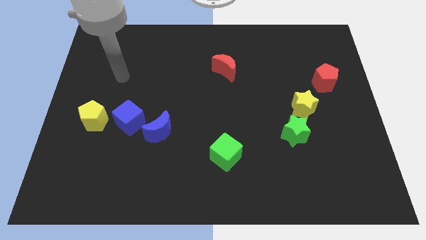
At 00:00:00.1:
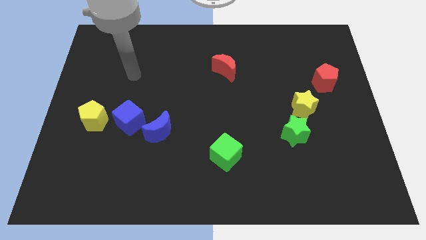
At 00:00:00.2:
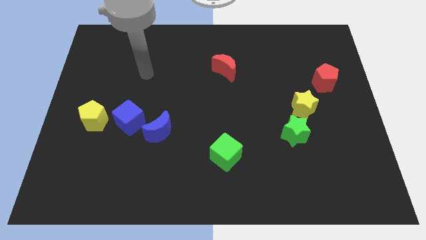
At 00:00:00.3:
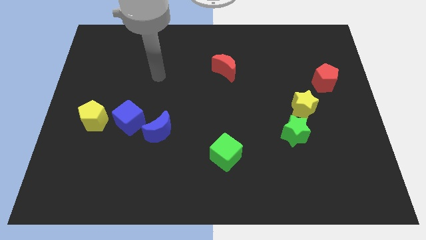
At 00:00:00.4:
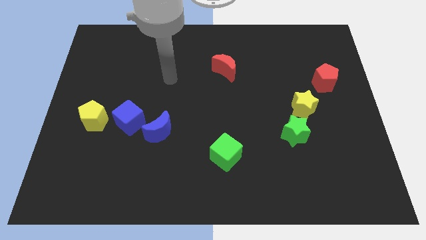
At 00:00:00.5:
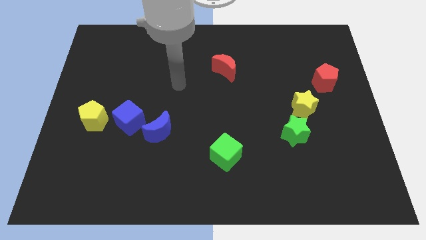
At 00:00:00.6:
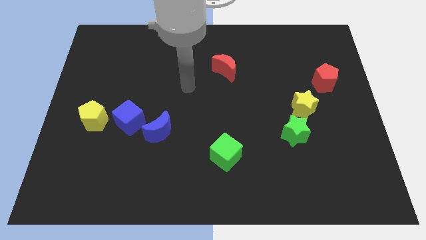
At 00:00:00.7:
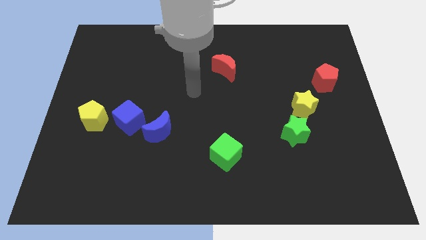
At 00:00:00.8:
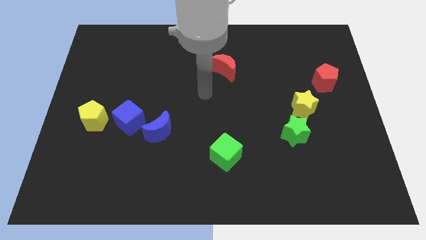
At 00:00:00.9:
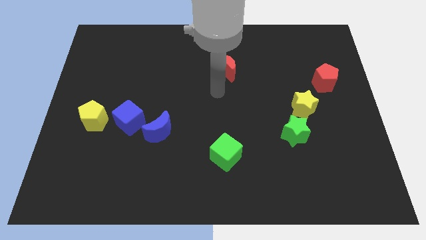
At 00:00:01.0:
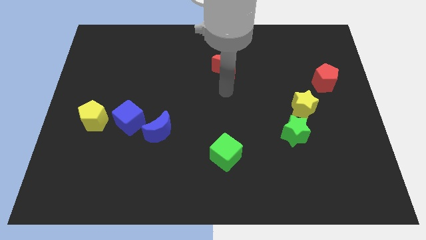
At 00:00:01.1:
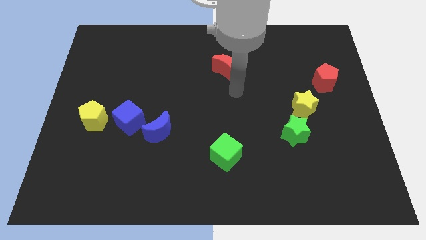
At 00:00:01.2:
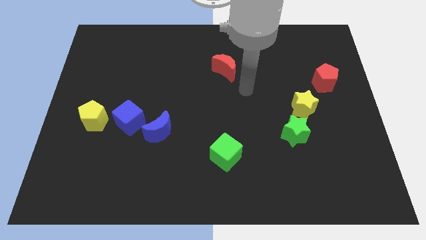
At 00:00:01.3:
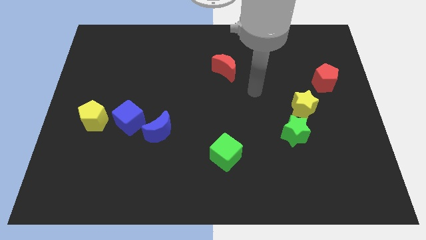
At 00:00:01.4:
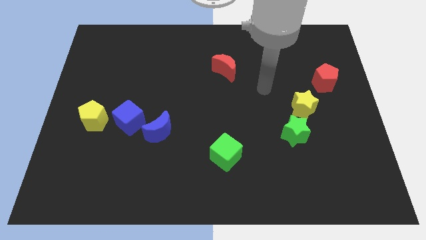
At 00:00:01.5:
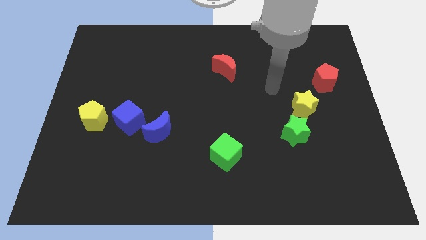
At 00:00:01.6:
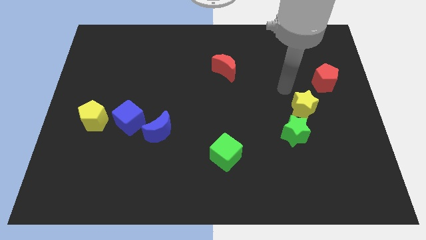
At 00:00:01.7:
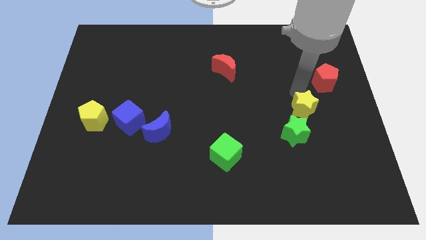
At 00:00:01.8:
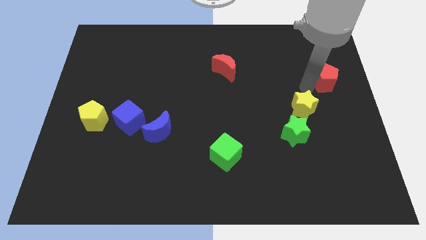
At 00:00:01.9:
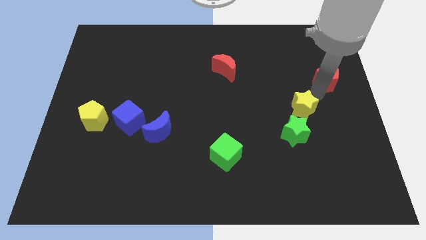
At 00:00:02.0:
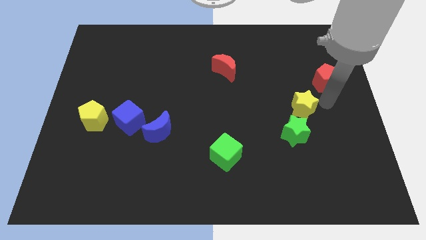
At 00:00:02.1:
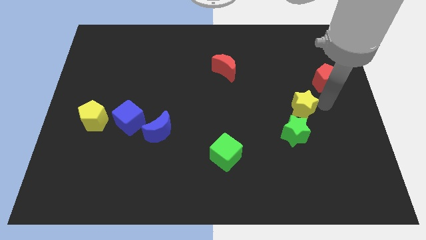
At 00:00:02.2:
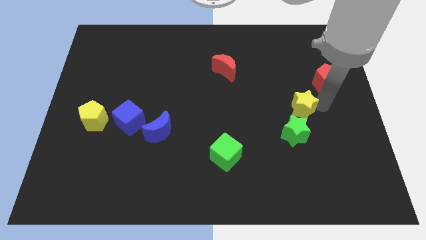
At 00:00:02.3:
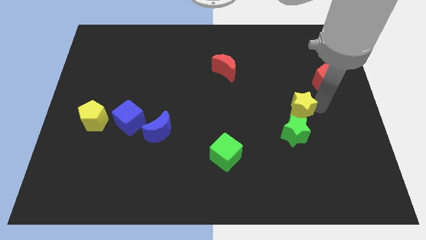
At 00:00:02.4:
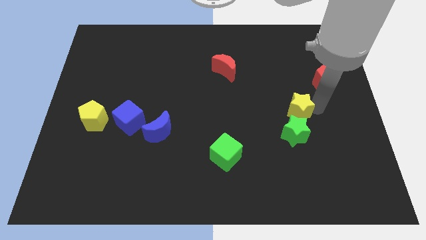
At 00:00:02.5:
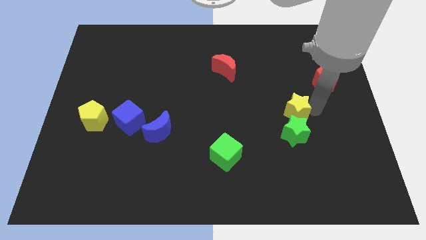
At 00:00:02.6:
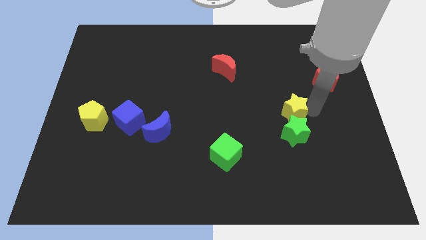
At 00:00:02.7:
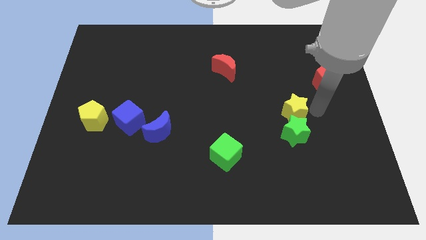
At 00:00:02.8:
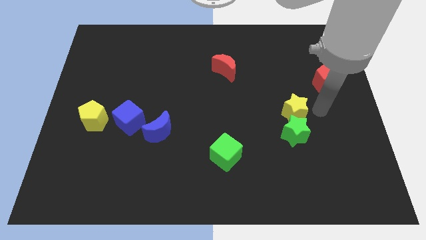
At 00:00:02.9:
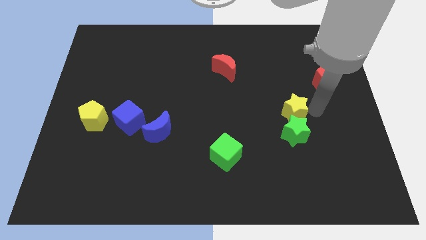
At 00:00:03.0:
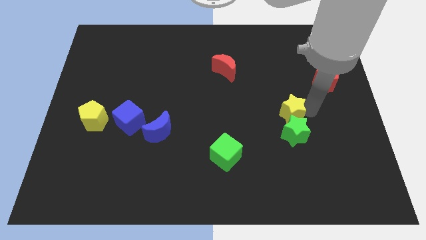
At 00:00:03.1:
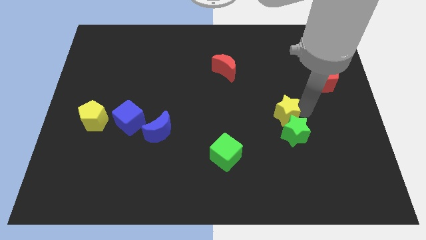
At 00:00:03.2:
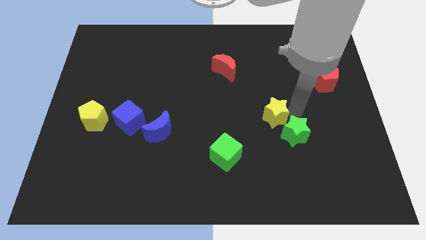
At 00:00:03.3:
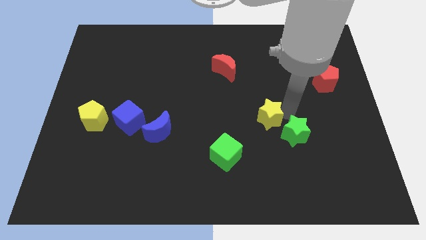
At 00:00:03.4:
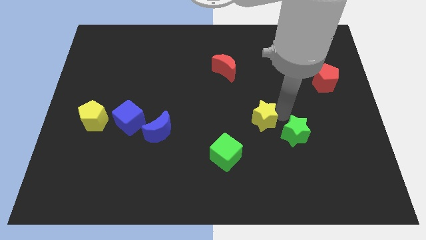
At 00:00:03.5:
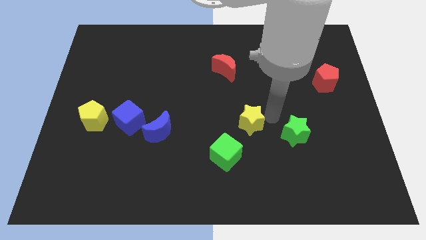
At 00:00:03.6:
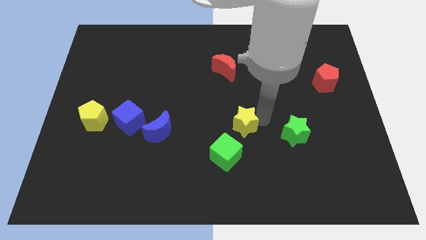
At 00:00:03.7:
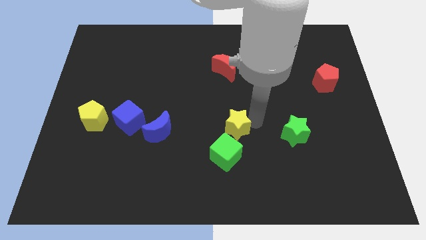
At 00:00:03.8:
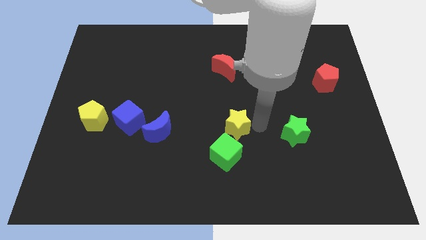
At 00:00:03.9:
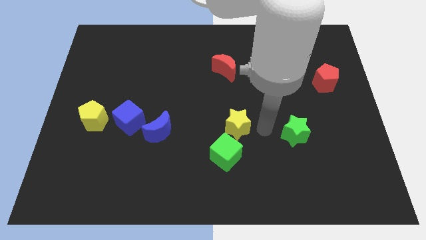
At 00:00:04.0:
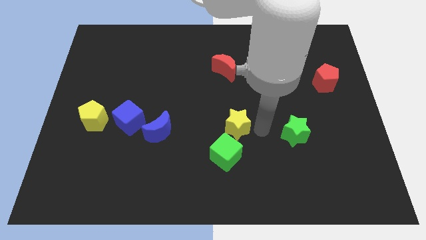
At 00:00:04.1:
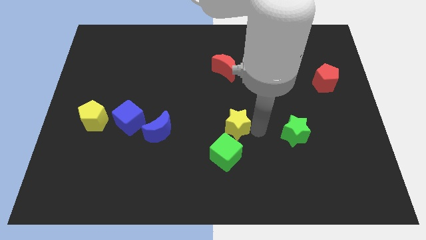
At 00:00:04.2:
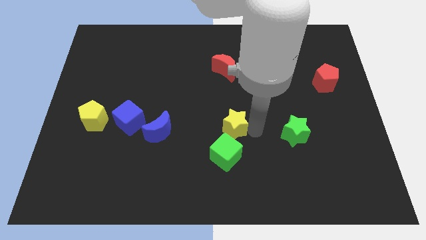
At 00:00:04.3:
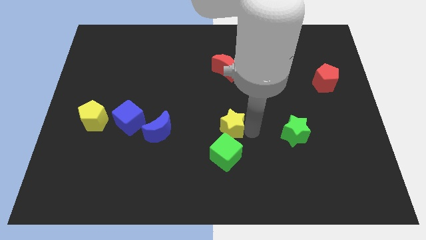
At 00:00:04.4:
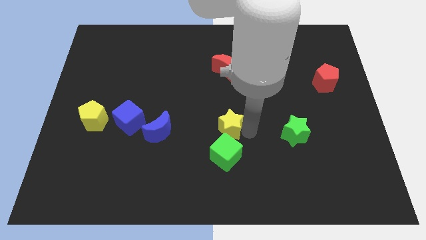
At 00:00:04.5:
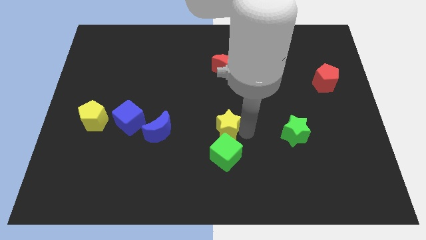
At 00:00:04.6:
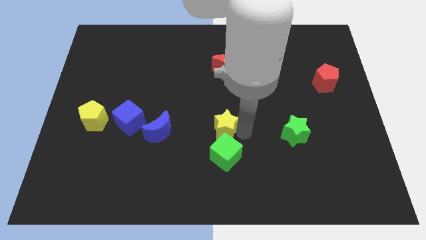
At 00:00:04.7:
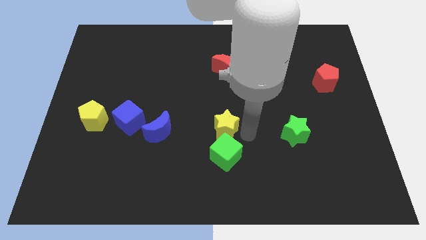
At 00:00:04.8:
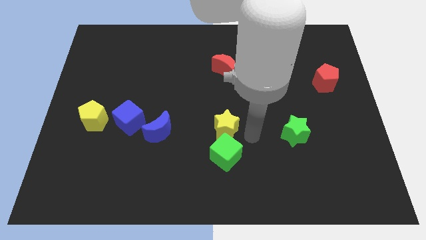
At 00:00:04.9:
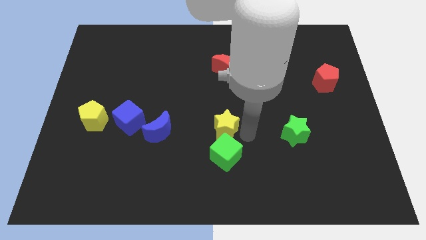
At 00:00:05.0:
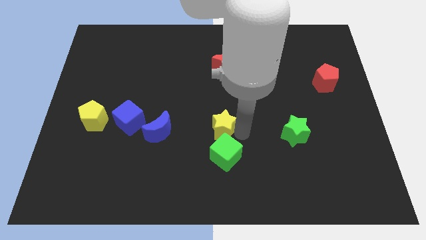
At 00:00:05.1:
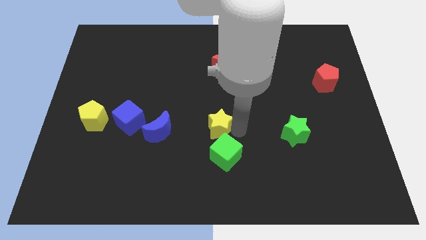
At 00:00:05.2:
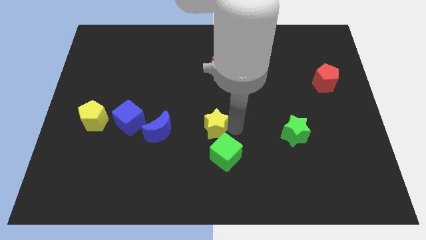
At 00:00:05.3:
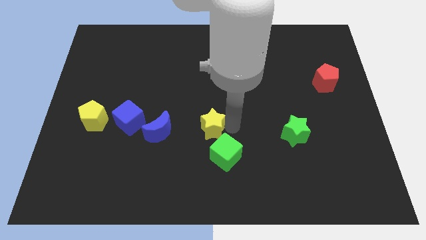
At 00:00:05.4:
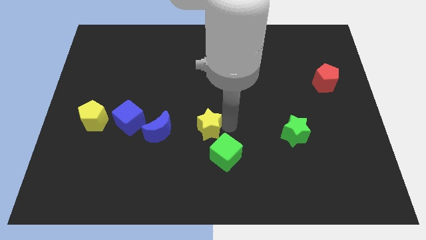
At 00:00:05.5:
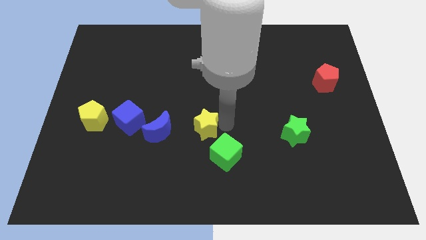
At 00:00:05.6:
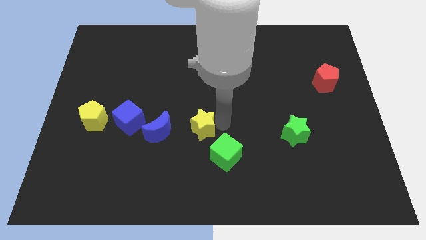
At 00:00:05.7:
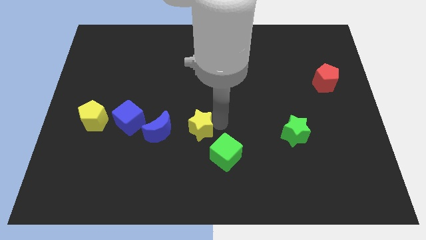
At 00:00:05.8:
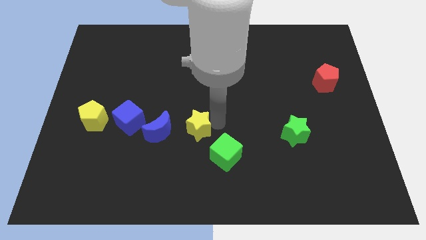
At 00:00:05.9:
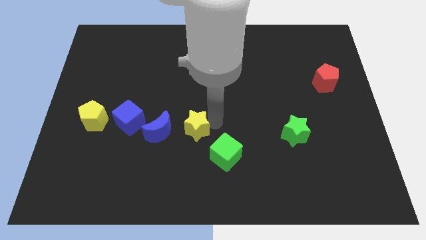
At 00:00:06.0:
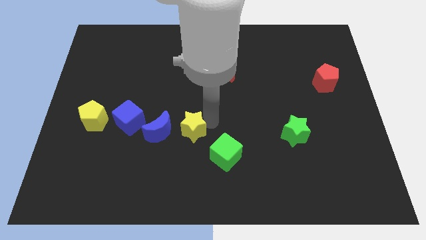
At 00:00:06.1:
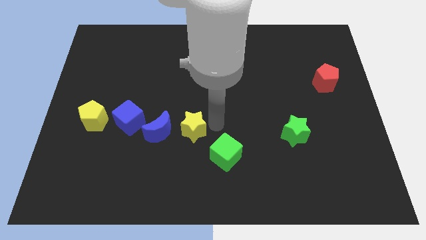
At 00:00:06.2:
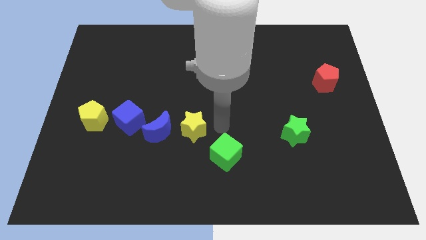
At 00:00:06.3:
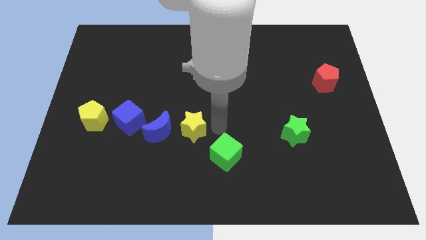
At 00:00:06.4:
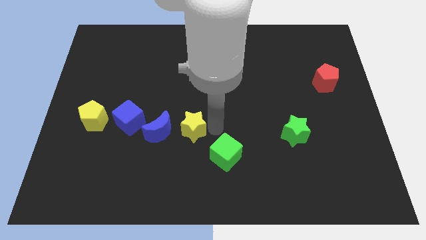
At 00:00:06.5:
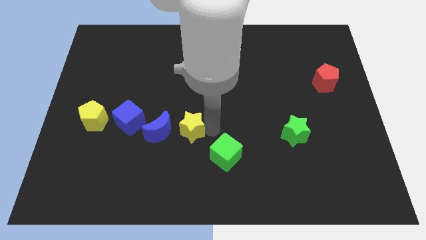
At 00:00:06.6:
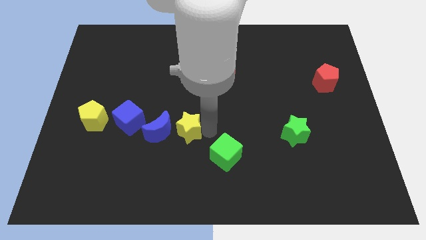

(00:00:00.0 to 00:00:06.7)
move the yellow star to the blue moon
